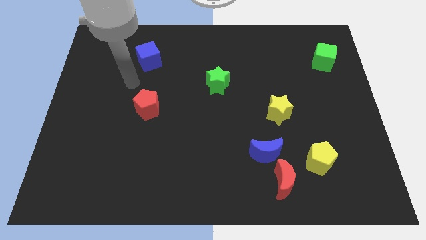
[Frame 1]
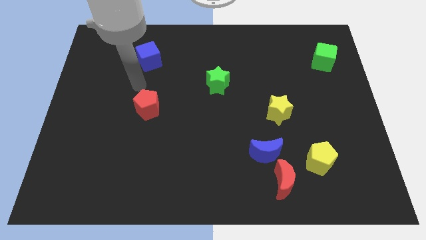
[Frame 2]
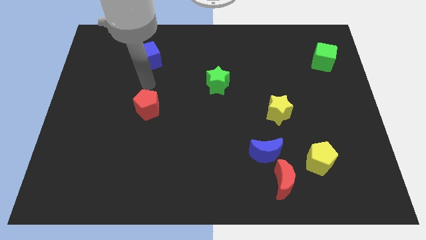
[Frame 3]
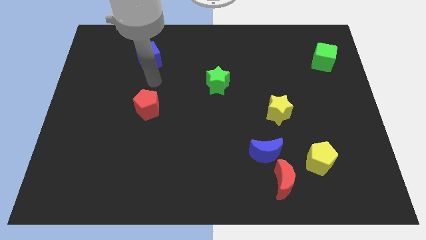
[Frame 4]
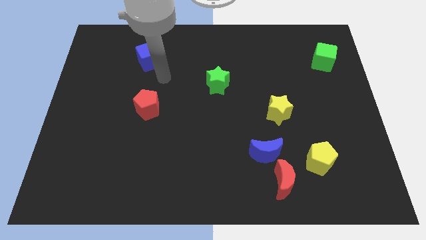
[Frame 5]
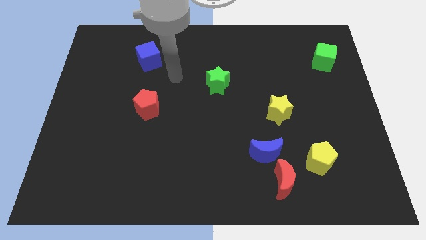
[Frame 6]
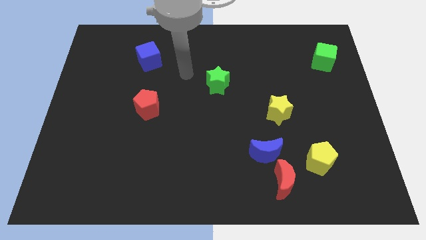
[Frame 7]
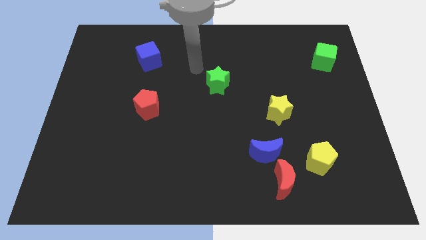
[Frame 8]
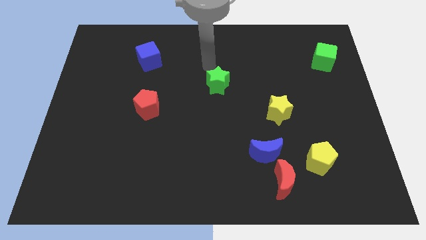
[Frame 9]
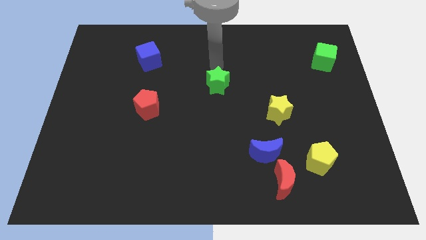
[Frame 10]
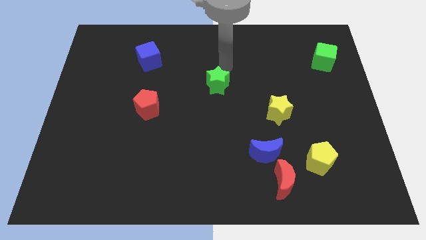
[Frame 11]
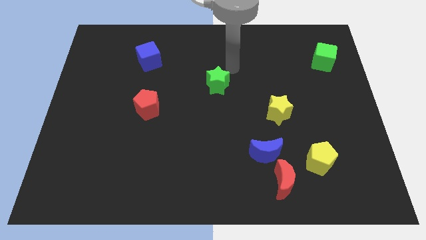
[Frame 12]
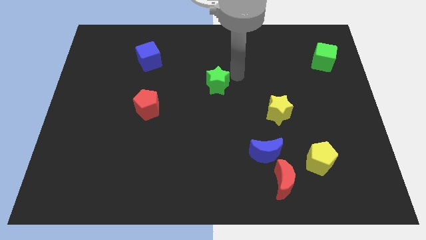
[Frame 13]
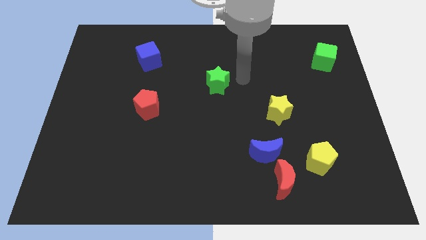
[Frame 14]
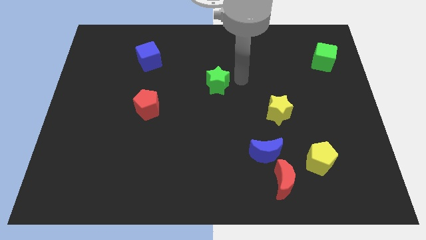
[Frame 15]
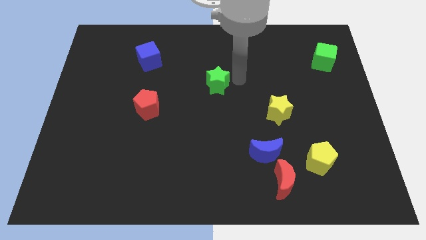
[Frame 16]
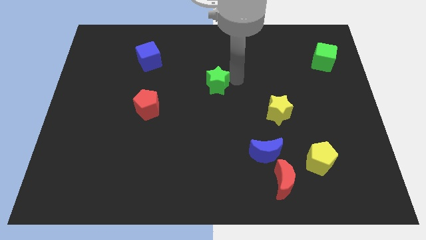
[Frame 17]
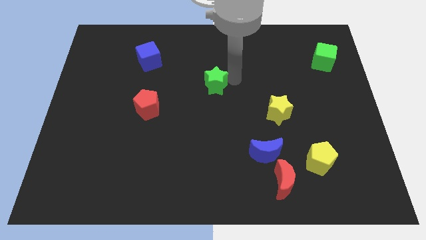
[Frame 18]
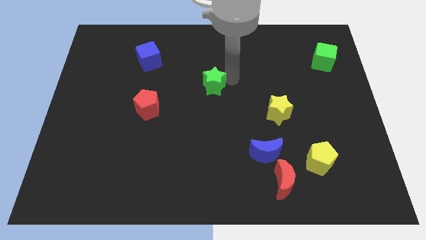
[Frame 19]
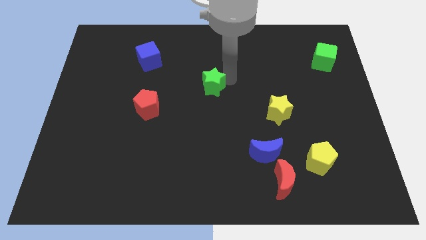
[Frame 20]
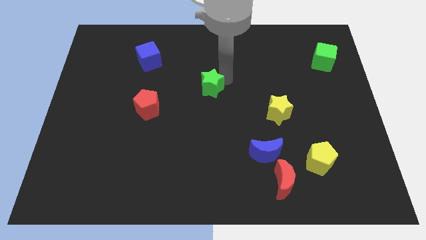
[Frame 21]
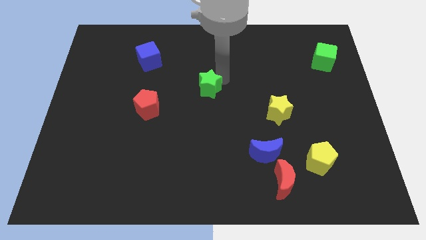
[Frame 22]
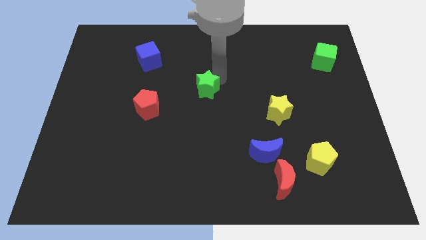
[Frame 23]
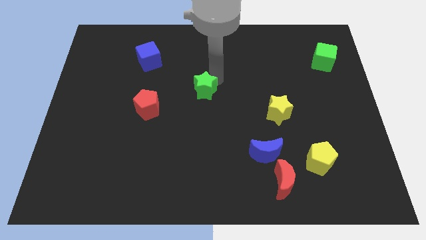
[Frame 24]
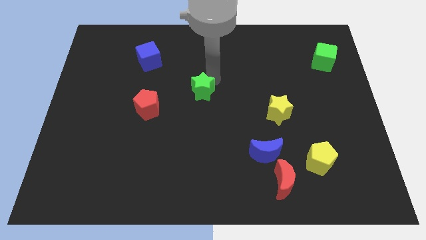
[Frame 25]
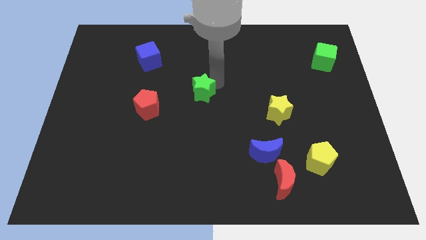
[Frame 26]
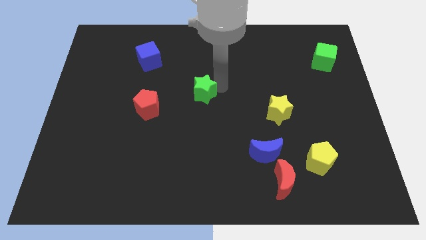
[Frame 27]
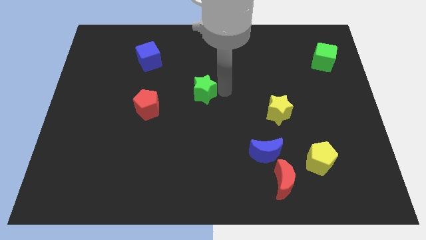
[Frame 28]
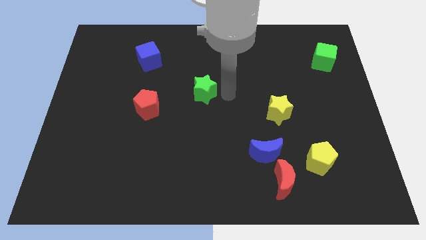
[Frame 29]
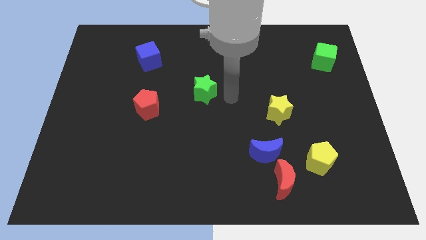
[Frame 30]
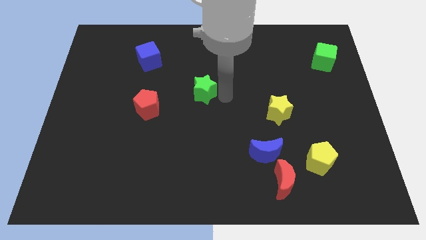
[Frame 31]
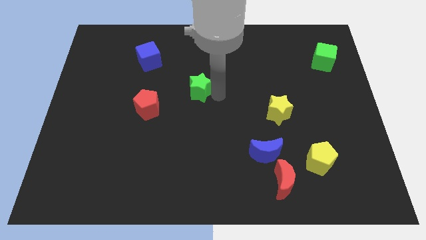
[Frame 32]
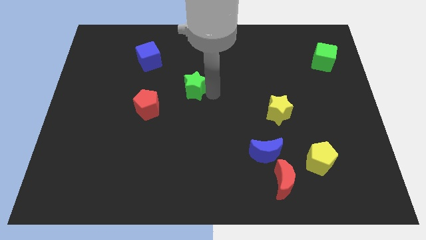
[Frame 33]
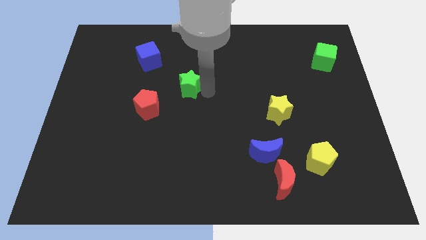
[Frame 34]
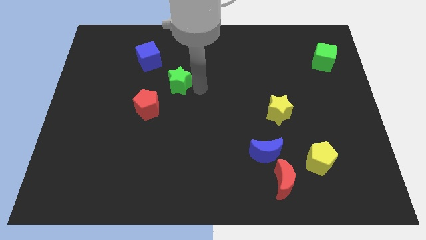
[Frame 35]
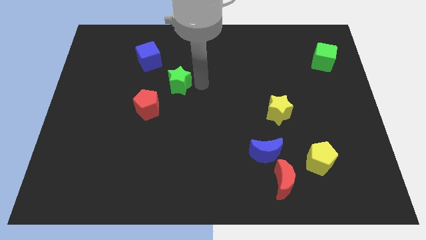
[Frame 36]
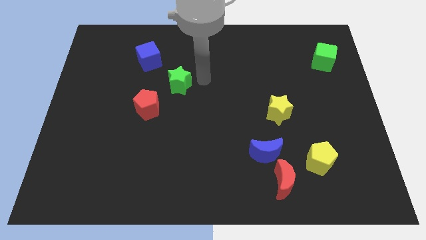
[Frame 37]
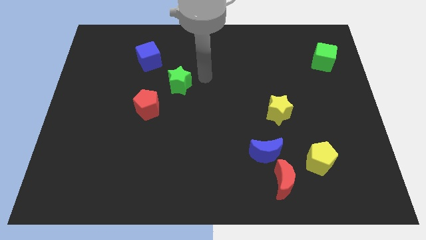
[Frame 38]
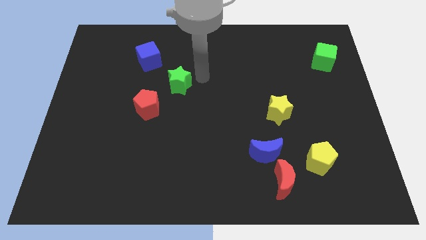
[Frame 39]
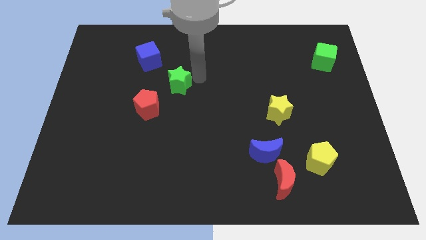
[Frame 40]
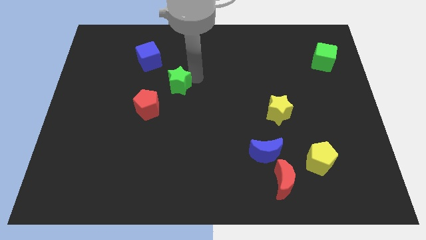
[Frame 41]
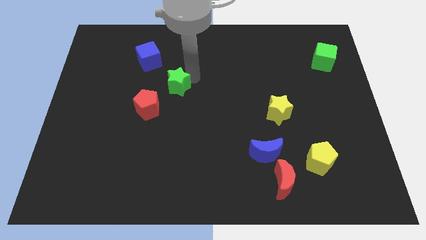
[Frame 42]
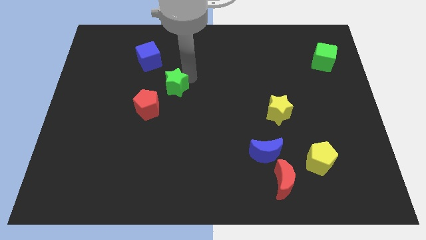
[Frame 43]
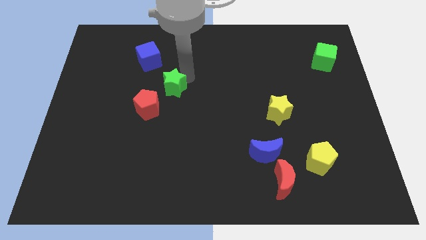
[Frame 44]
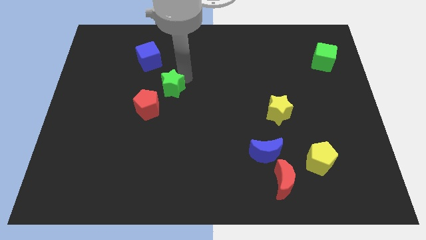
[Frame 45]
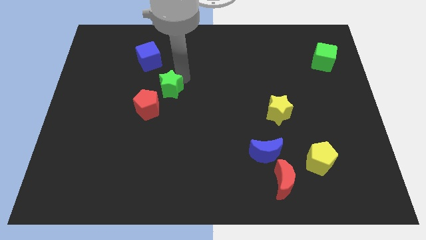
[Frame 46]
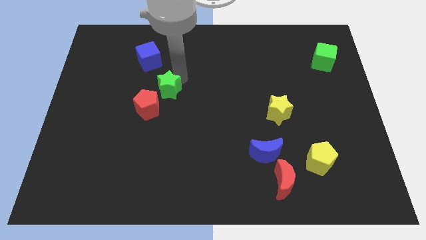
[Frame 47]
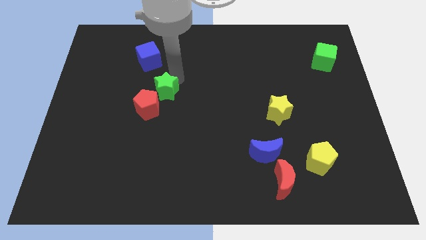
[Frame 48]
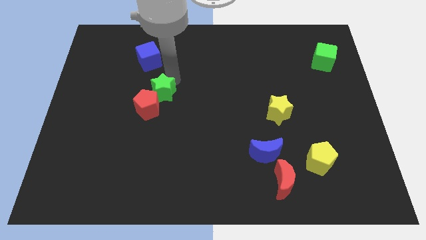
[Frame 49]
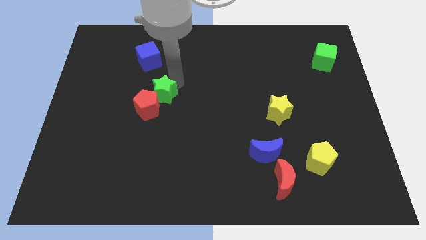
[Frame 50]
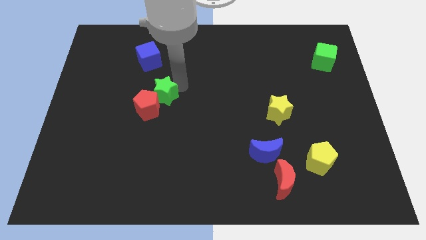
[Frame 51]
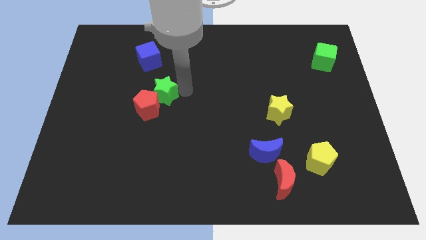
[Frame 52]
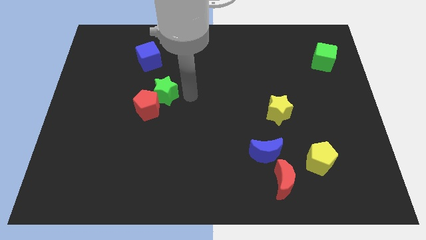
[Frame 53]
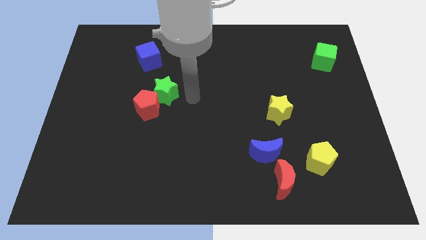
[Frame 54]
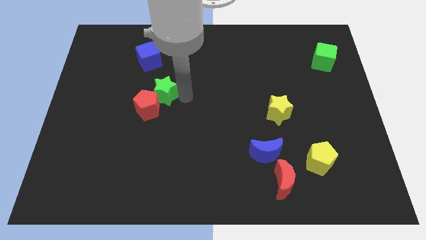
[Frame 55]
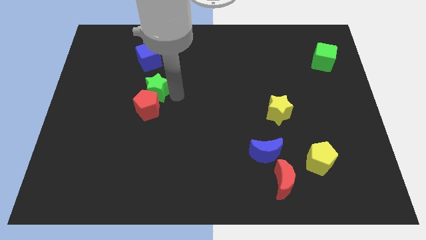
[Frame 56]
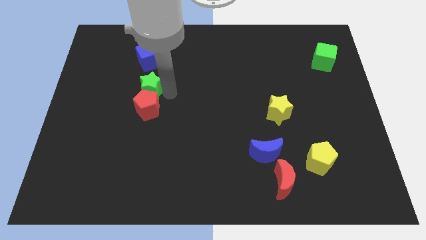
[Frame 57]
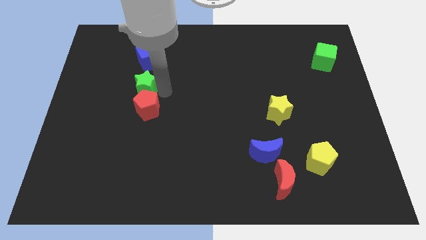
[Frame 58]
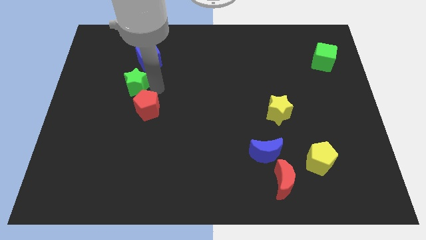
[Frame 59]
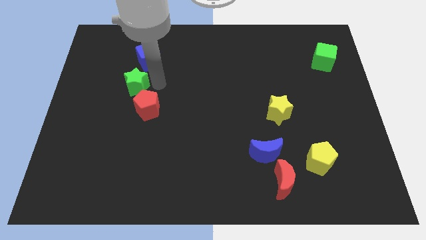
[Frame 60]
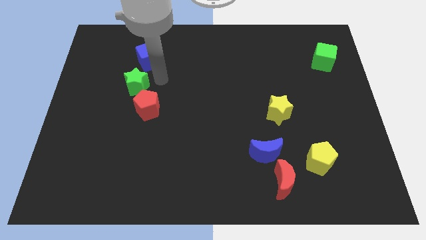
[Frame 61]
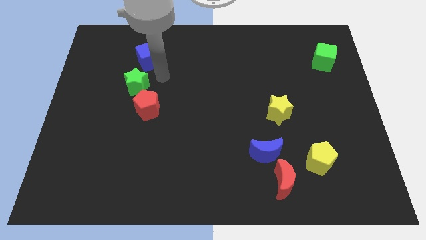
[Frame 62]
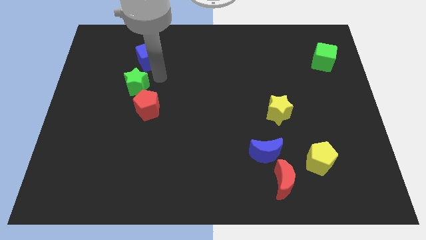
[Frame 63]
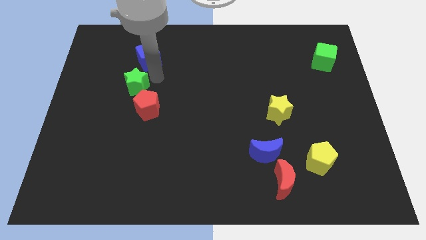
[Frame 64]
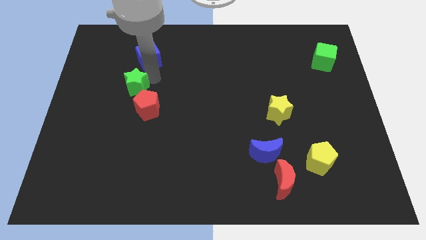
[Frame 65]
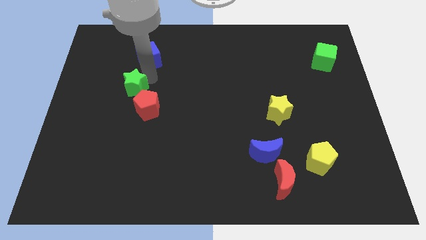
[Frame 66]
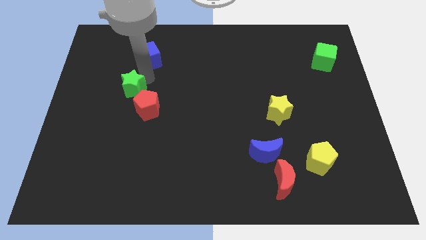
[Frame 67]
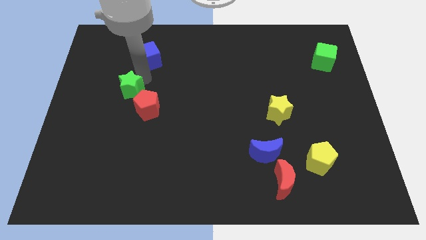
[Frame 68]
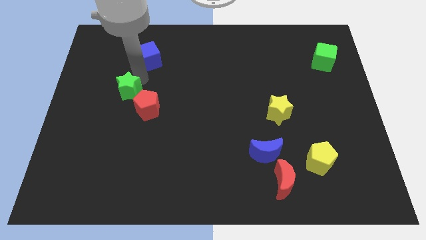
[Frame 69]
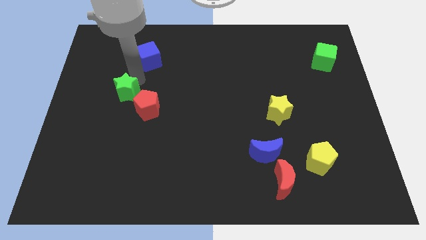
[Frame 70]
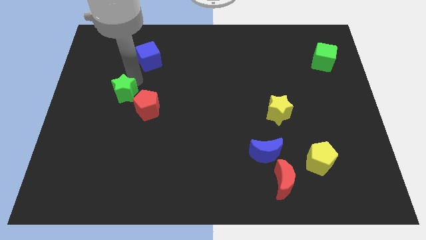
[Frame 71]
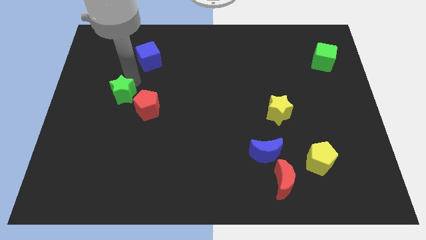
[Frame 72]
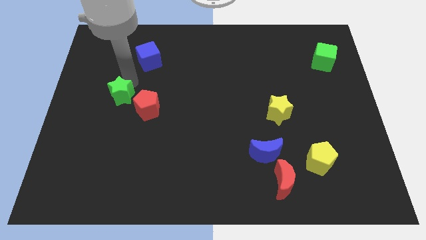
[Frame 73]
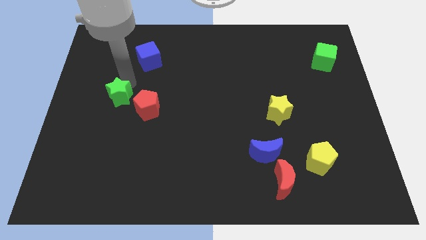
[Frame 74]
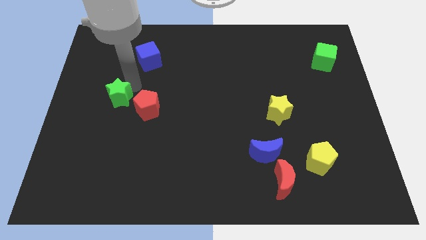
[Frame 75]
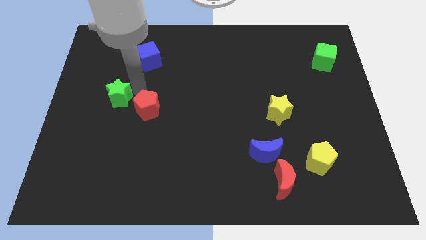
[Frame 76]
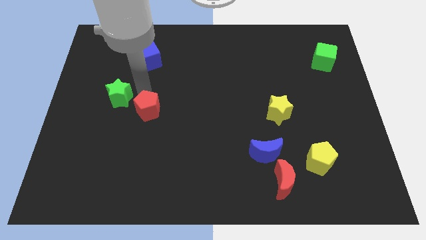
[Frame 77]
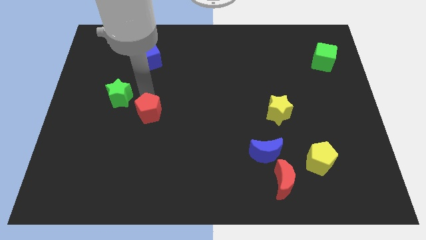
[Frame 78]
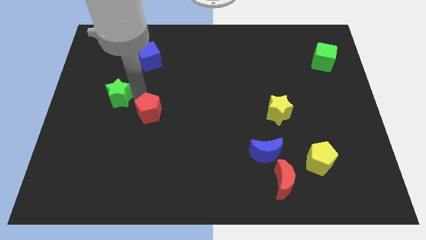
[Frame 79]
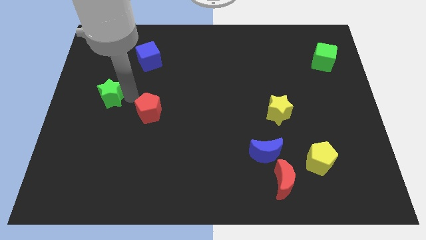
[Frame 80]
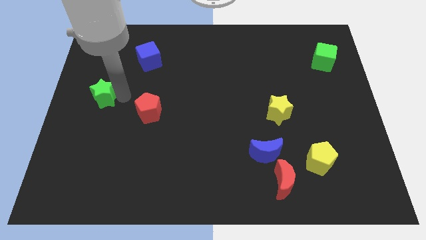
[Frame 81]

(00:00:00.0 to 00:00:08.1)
move the green star to the left side
